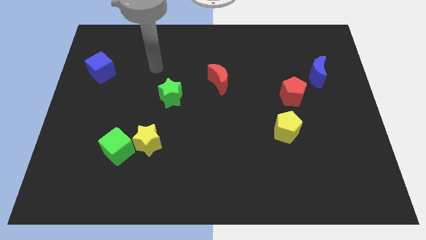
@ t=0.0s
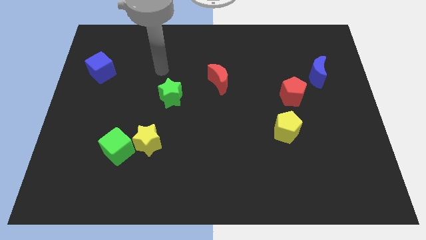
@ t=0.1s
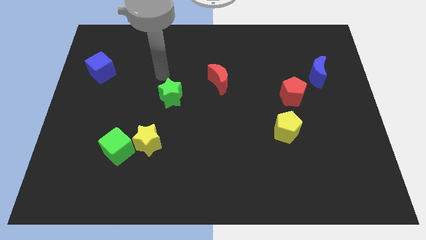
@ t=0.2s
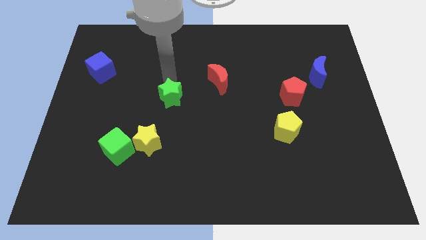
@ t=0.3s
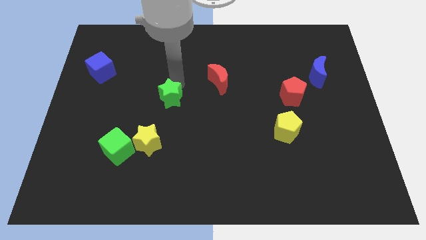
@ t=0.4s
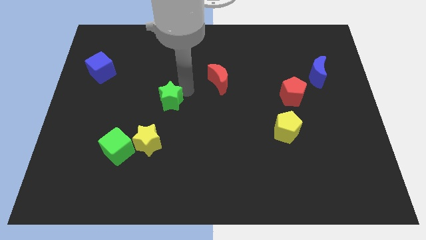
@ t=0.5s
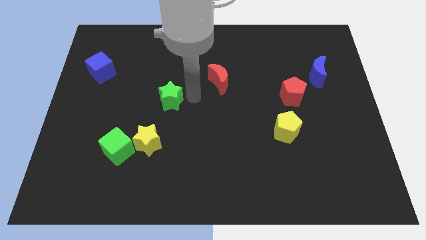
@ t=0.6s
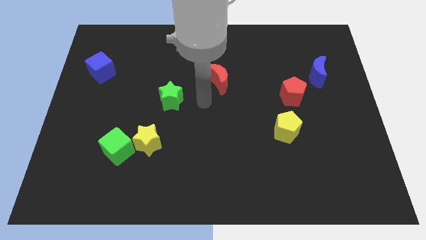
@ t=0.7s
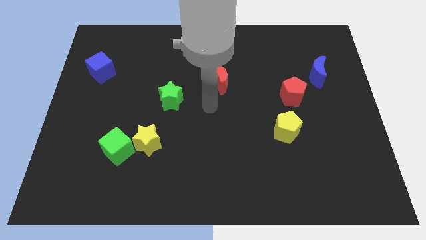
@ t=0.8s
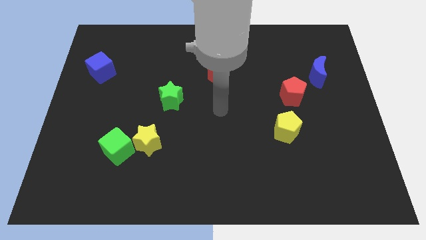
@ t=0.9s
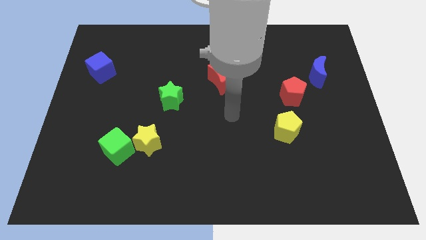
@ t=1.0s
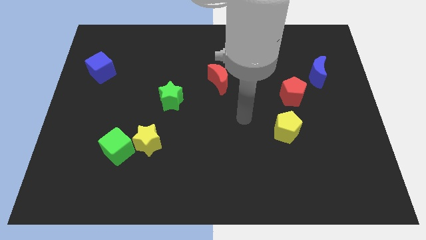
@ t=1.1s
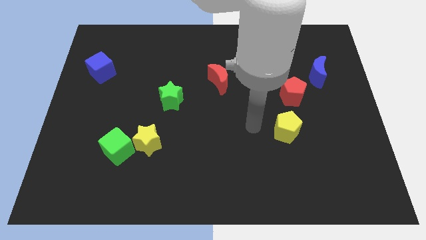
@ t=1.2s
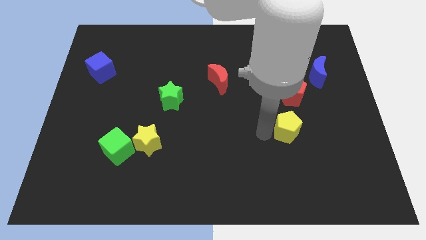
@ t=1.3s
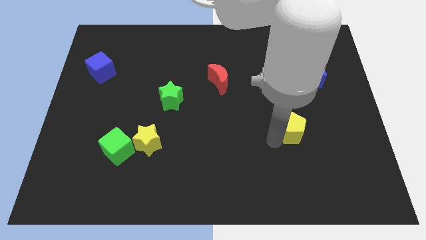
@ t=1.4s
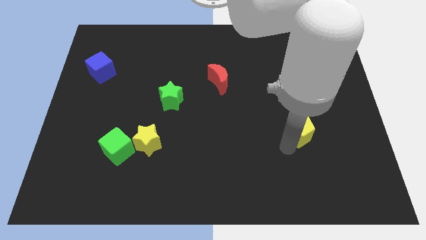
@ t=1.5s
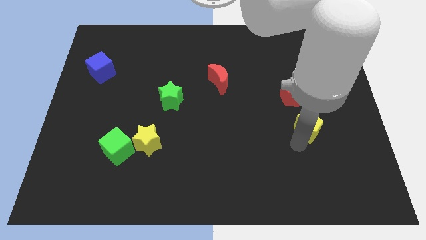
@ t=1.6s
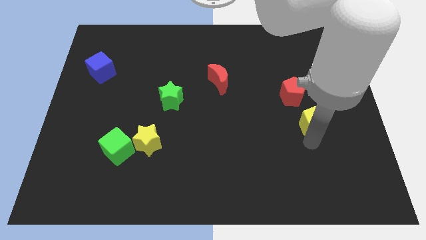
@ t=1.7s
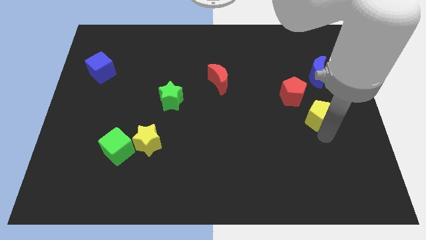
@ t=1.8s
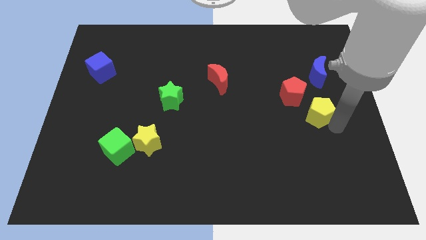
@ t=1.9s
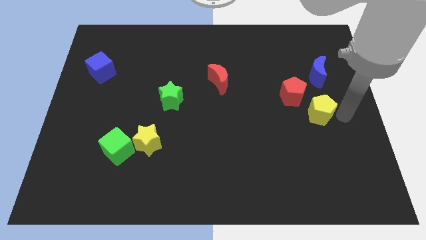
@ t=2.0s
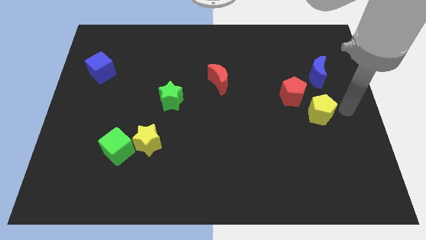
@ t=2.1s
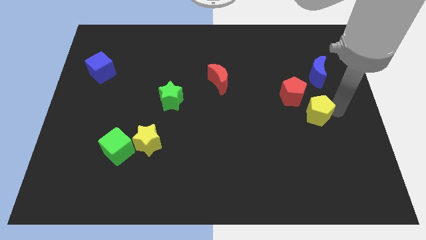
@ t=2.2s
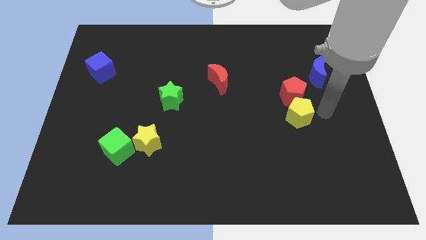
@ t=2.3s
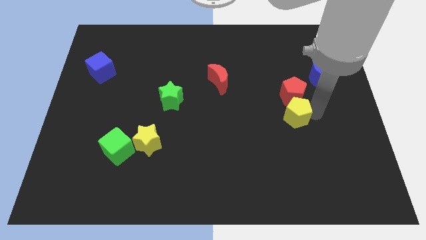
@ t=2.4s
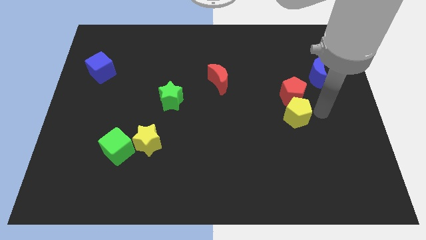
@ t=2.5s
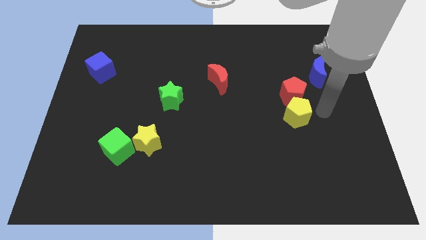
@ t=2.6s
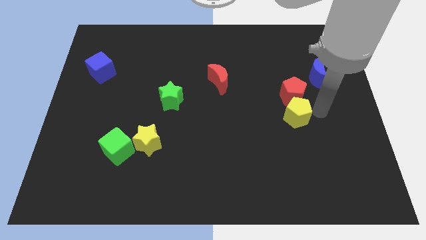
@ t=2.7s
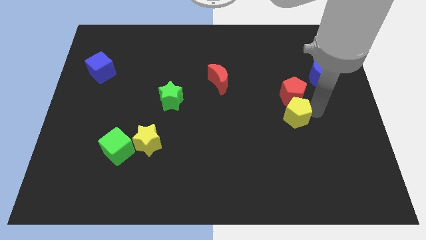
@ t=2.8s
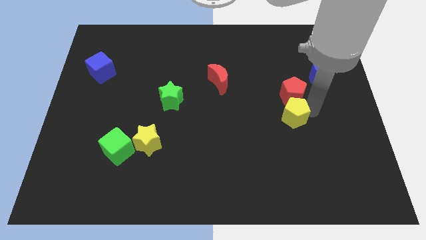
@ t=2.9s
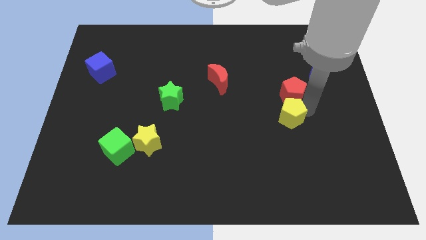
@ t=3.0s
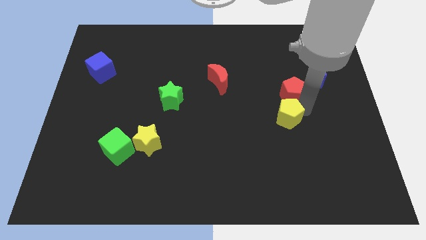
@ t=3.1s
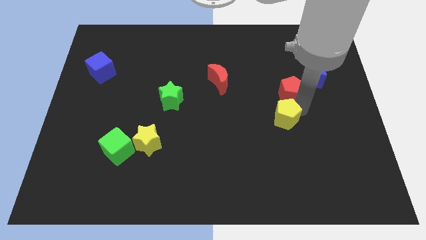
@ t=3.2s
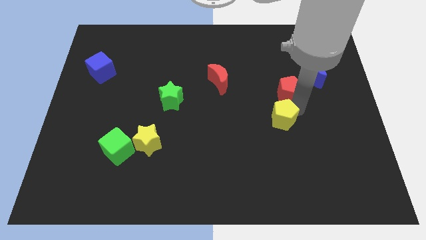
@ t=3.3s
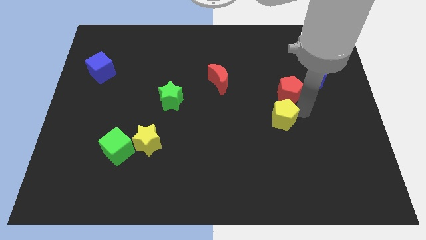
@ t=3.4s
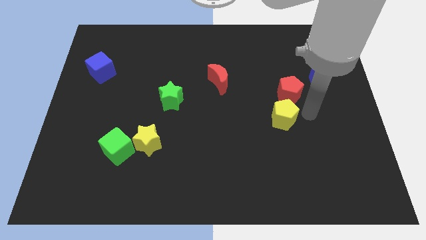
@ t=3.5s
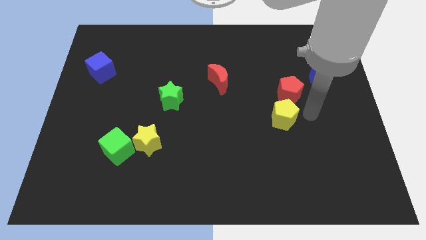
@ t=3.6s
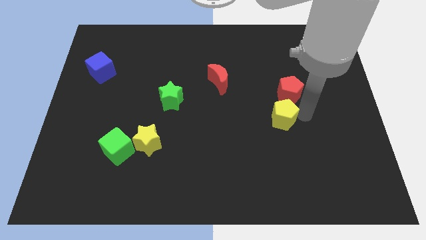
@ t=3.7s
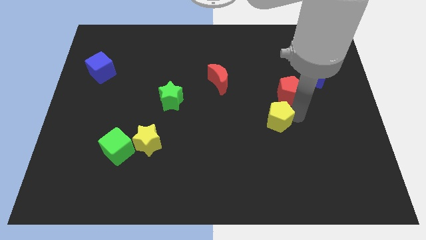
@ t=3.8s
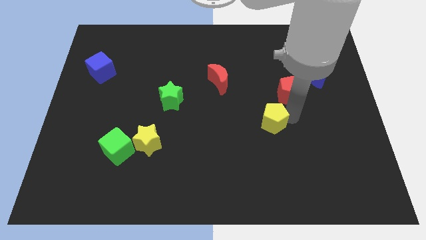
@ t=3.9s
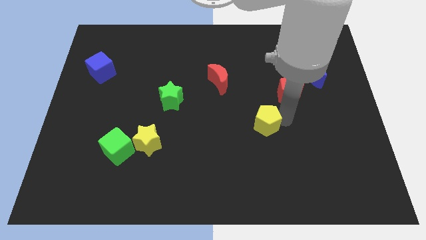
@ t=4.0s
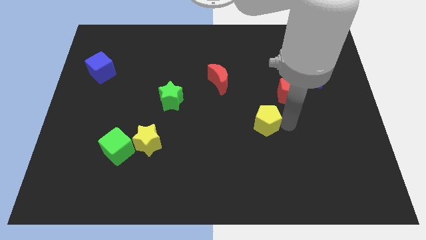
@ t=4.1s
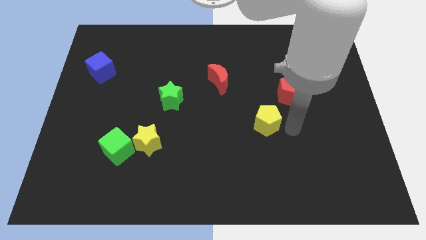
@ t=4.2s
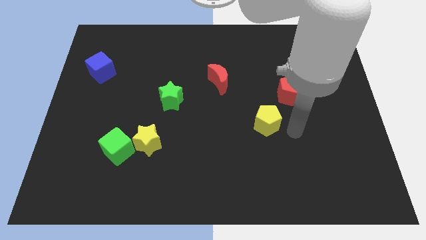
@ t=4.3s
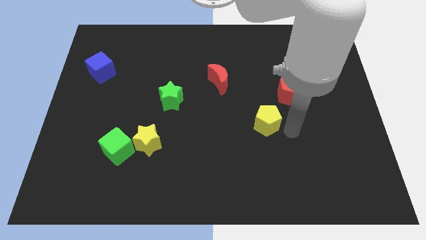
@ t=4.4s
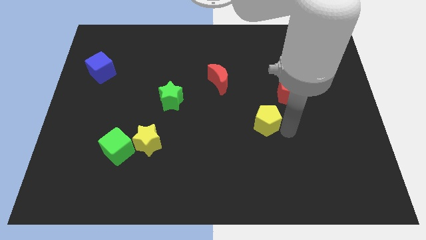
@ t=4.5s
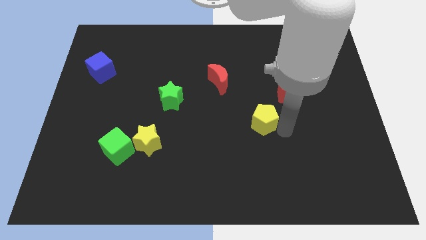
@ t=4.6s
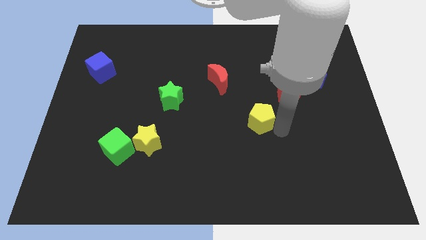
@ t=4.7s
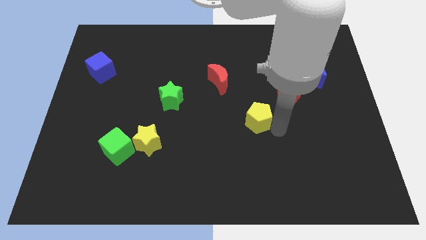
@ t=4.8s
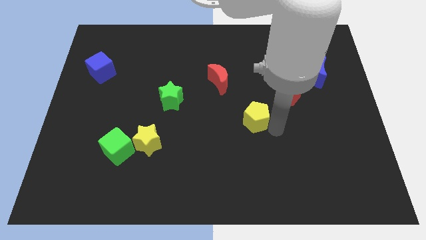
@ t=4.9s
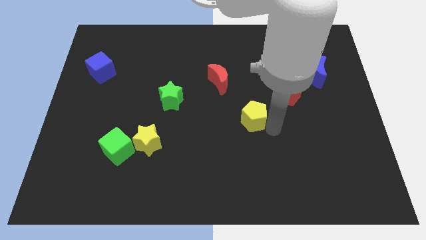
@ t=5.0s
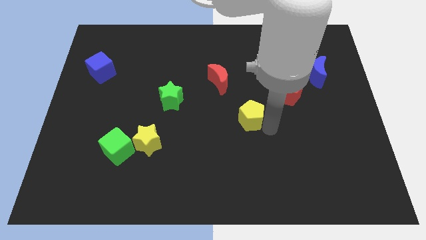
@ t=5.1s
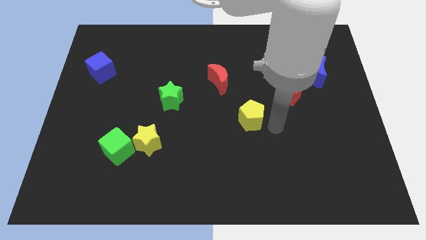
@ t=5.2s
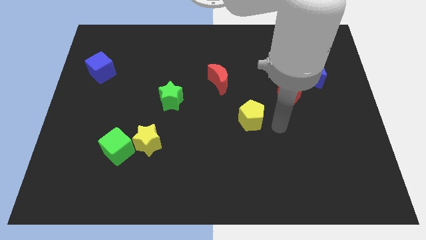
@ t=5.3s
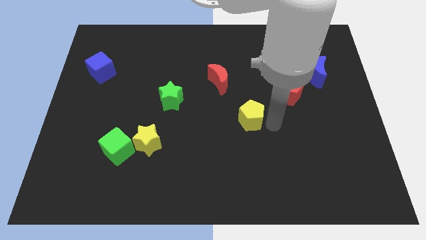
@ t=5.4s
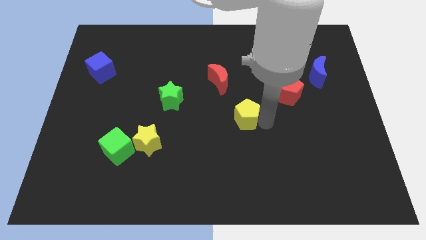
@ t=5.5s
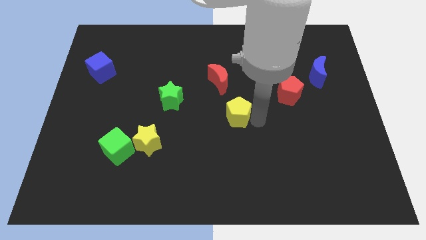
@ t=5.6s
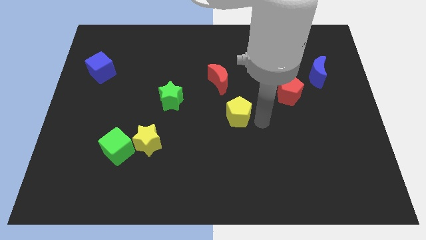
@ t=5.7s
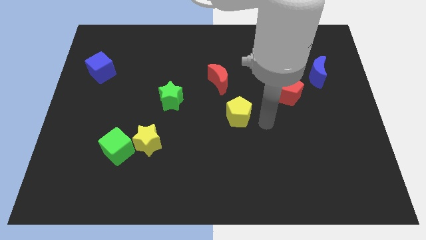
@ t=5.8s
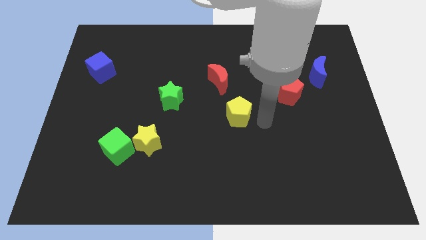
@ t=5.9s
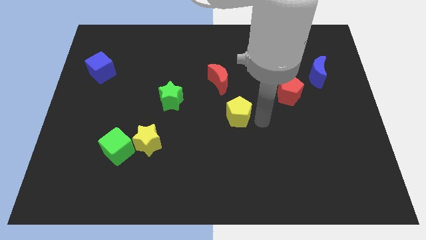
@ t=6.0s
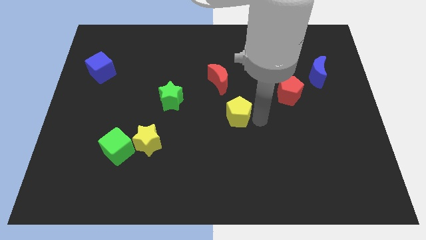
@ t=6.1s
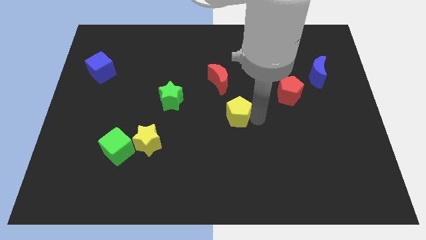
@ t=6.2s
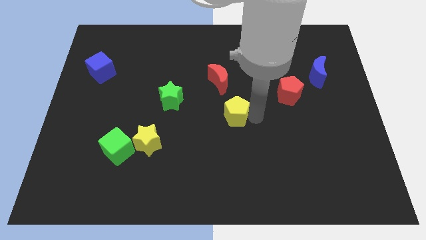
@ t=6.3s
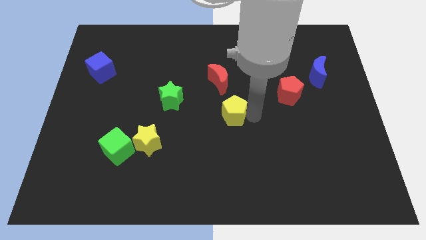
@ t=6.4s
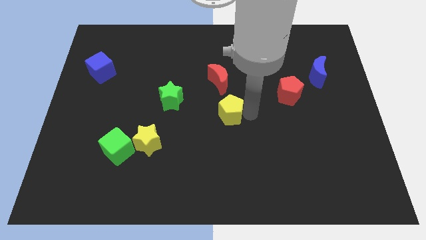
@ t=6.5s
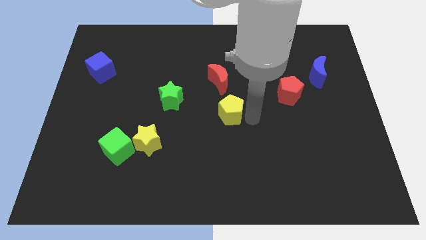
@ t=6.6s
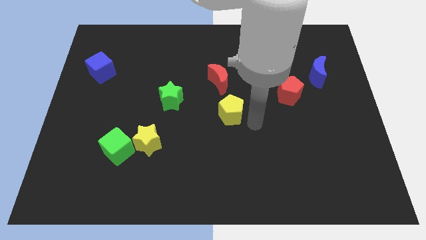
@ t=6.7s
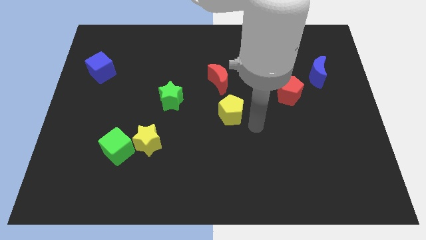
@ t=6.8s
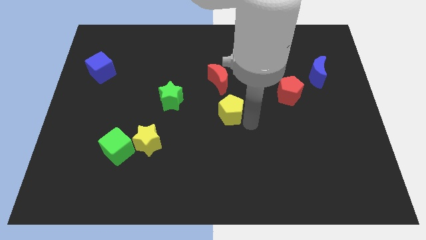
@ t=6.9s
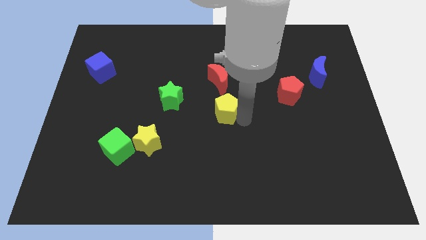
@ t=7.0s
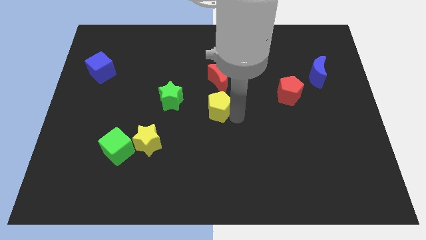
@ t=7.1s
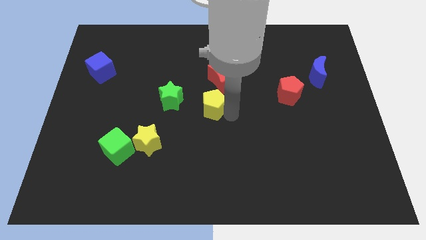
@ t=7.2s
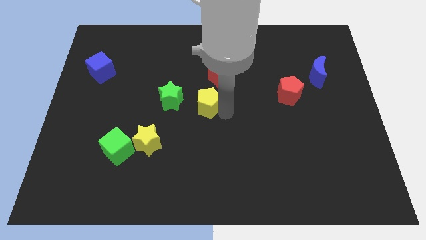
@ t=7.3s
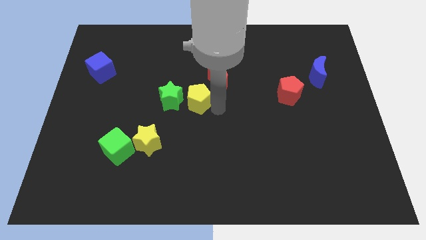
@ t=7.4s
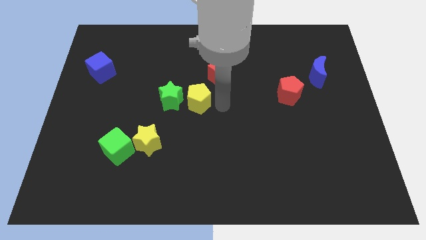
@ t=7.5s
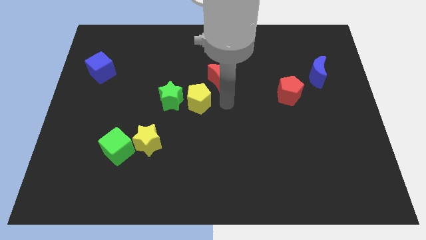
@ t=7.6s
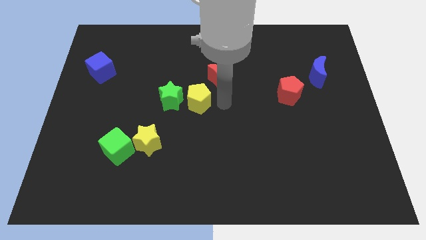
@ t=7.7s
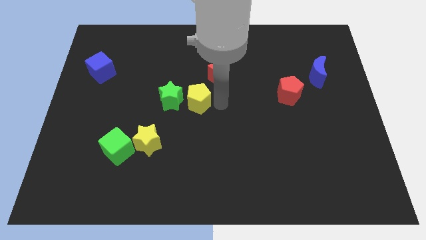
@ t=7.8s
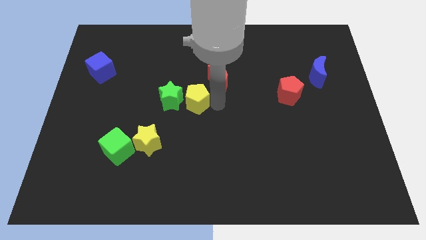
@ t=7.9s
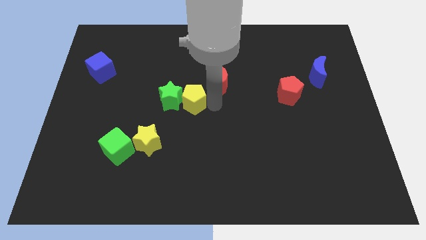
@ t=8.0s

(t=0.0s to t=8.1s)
put the yellow pentagon to the green star
